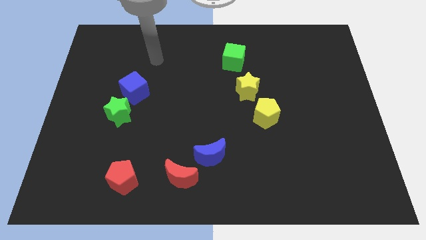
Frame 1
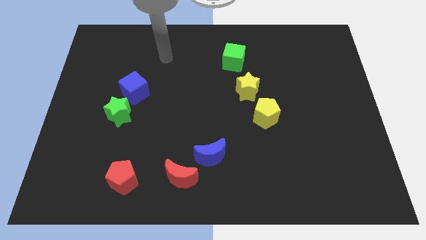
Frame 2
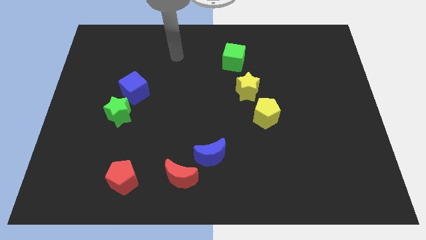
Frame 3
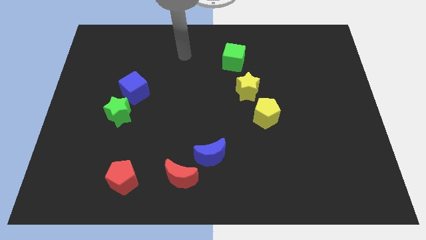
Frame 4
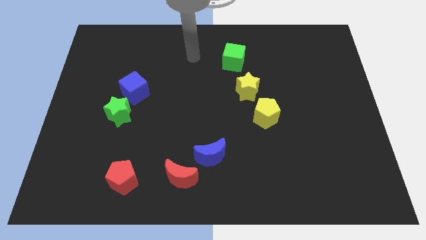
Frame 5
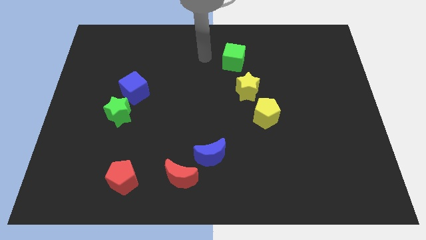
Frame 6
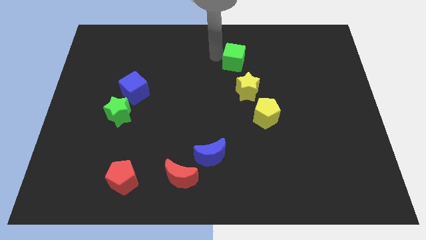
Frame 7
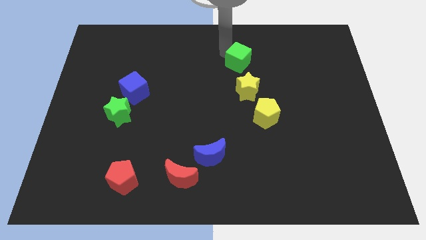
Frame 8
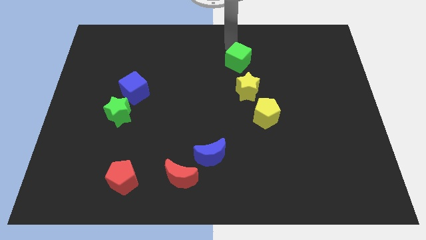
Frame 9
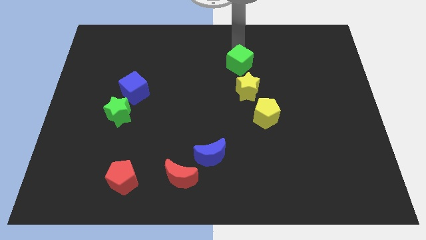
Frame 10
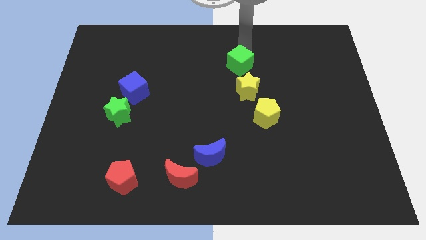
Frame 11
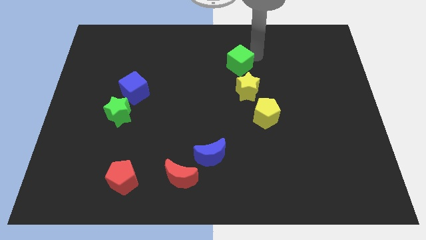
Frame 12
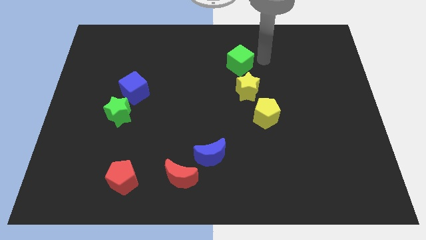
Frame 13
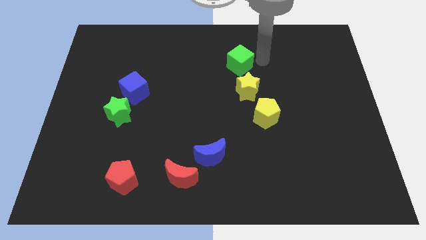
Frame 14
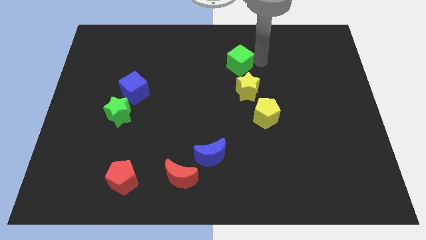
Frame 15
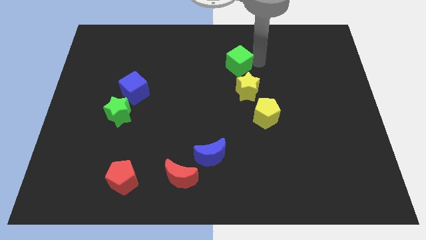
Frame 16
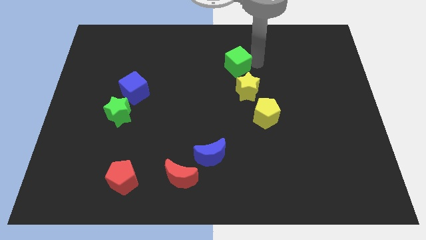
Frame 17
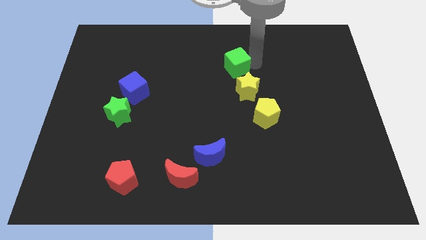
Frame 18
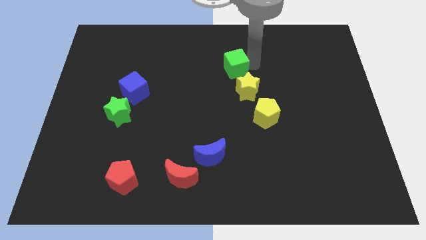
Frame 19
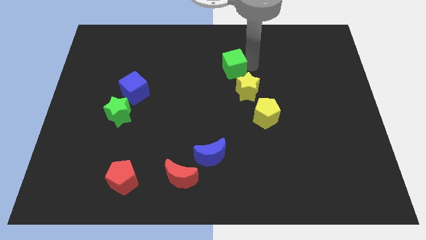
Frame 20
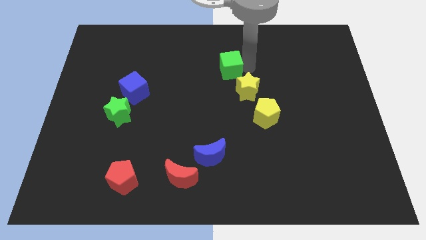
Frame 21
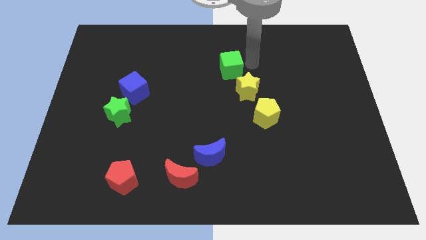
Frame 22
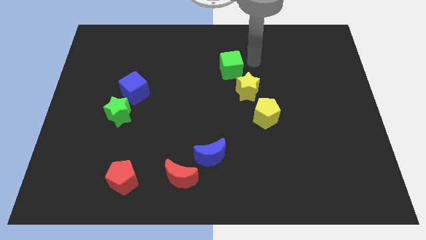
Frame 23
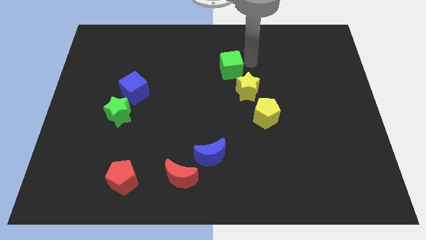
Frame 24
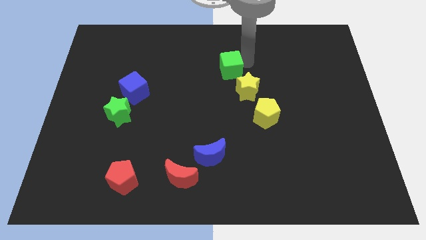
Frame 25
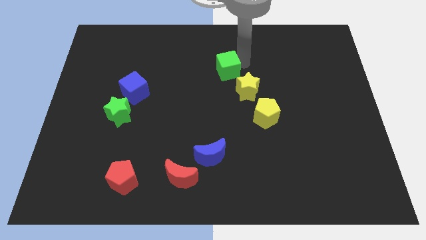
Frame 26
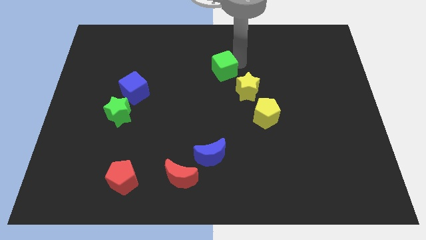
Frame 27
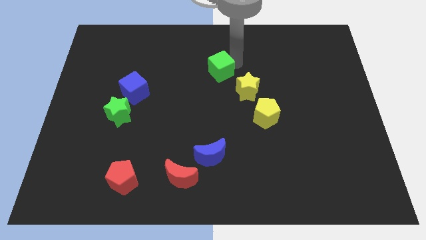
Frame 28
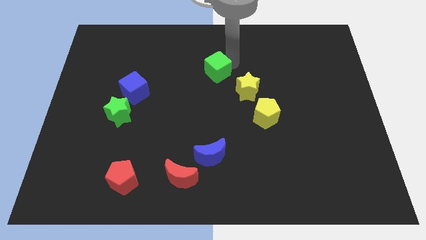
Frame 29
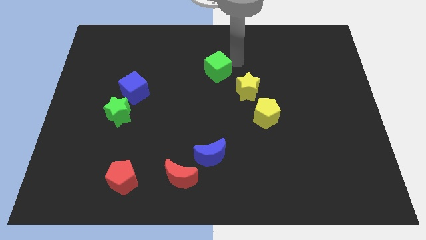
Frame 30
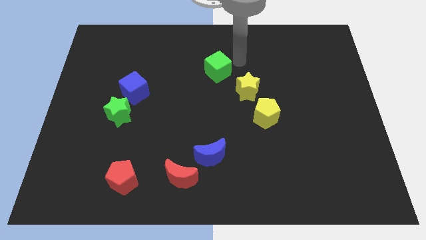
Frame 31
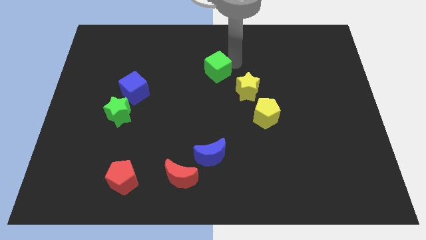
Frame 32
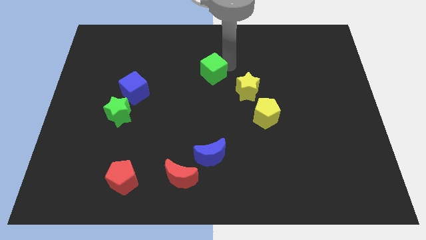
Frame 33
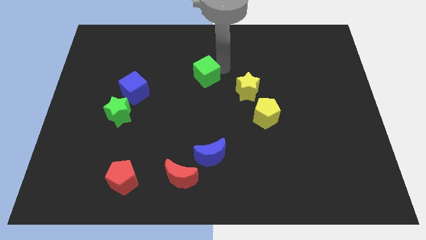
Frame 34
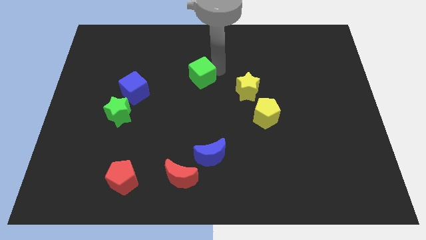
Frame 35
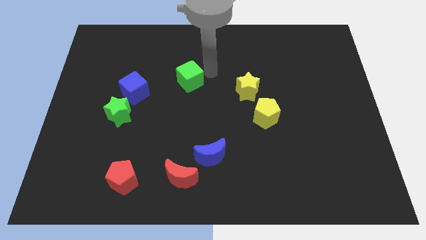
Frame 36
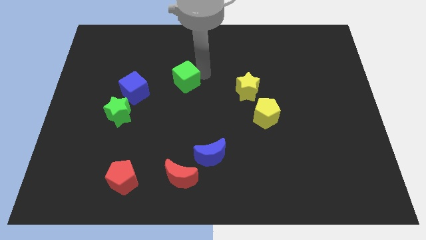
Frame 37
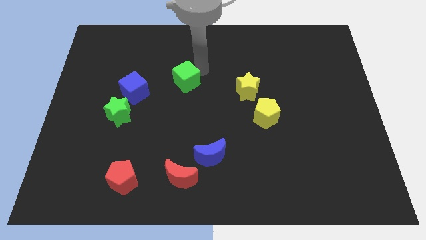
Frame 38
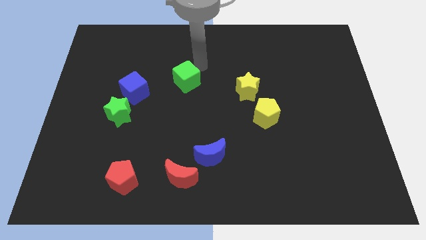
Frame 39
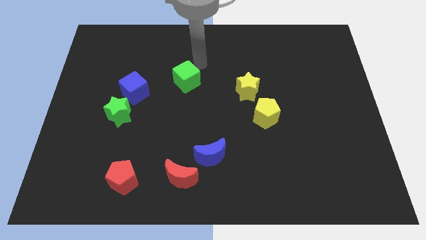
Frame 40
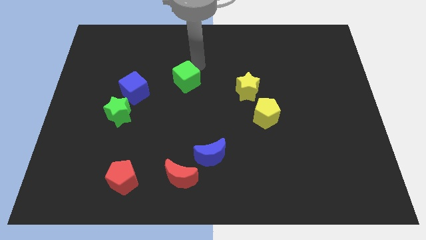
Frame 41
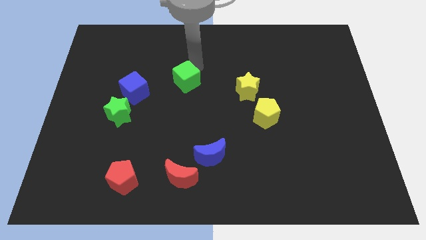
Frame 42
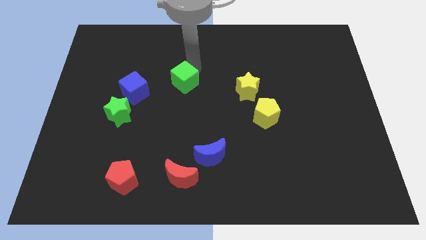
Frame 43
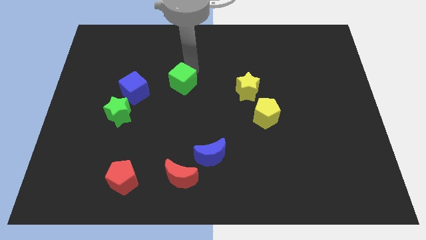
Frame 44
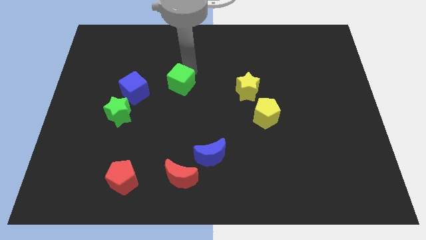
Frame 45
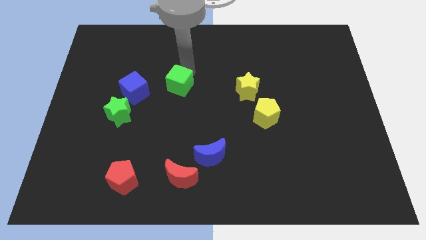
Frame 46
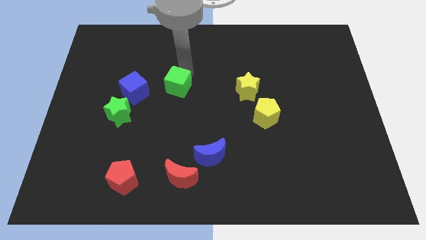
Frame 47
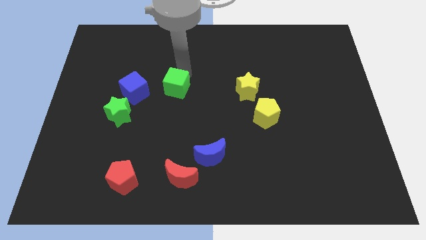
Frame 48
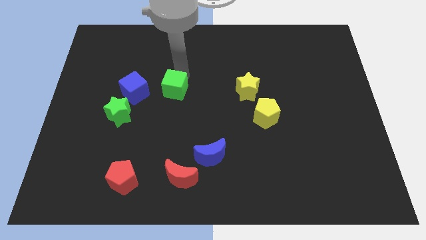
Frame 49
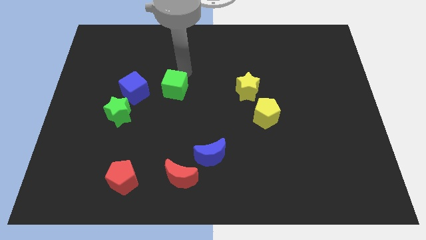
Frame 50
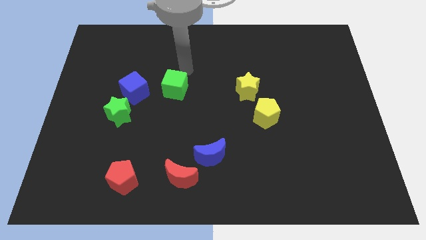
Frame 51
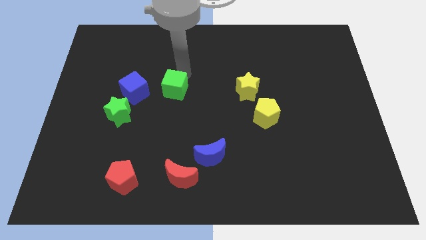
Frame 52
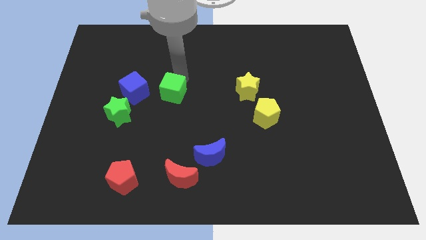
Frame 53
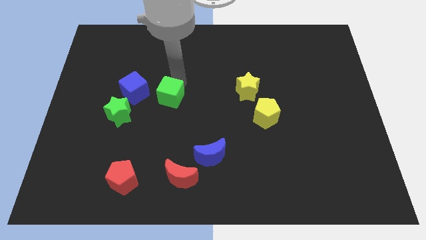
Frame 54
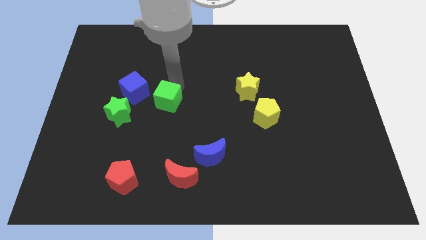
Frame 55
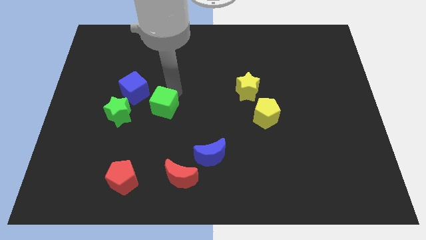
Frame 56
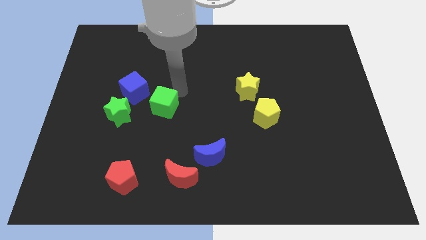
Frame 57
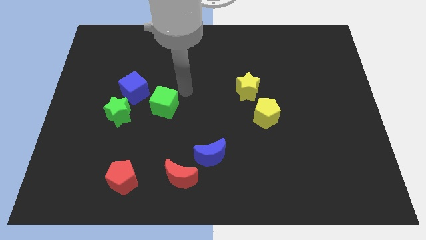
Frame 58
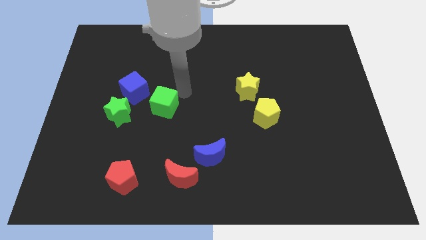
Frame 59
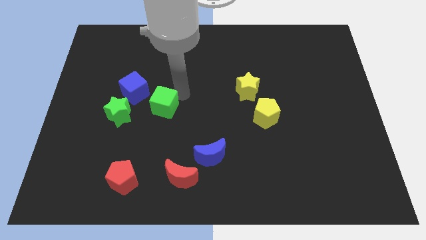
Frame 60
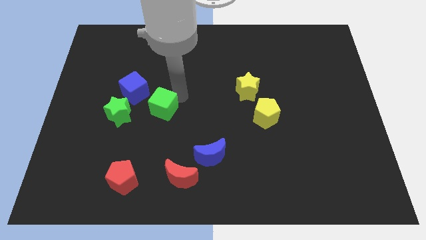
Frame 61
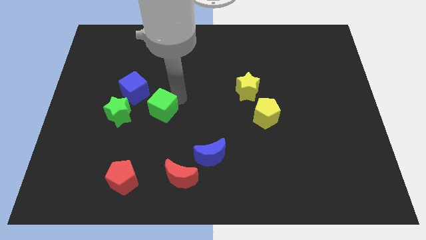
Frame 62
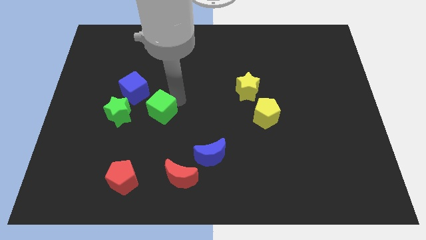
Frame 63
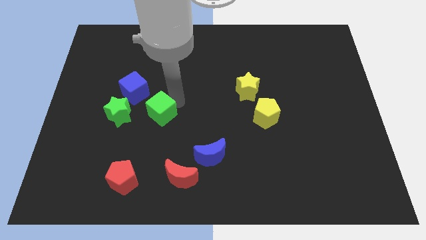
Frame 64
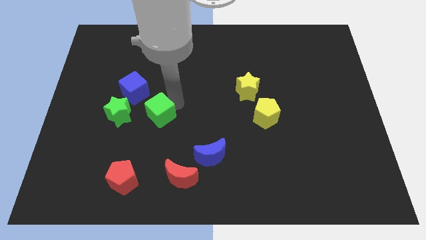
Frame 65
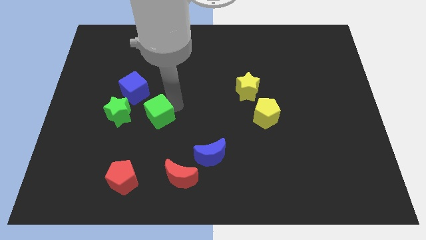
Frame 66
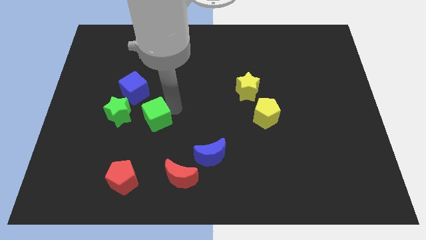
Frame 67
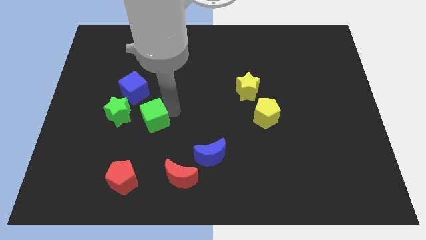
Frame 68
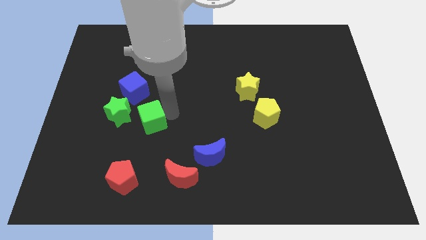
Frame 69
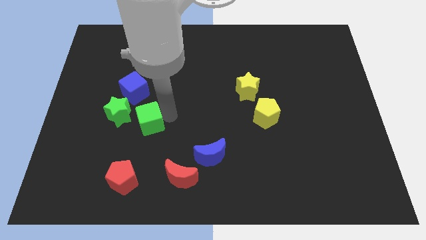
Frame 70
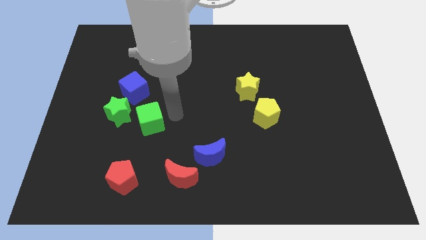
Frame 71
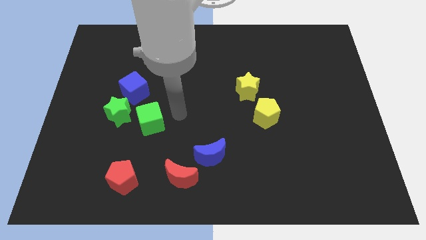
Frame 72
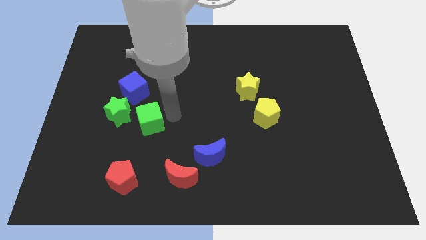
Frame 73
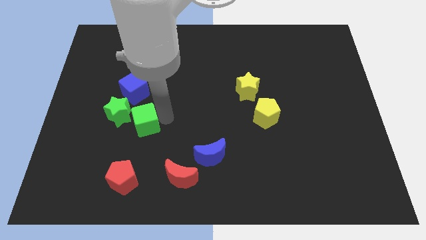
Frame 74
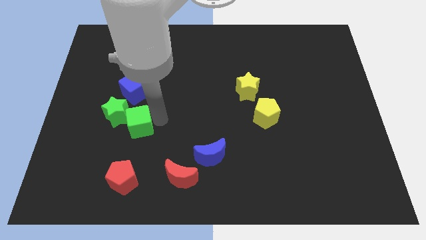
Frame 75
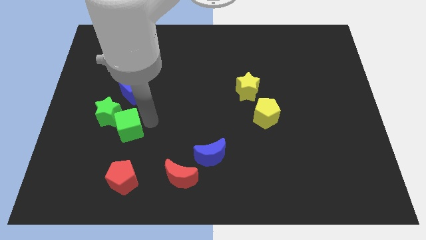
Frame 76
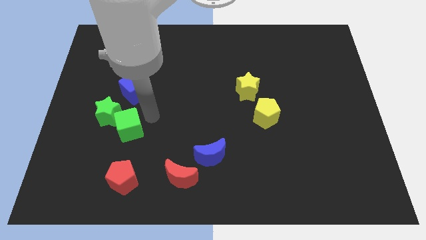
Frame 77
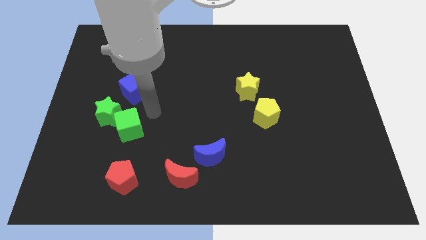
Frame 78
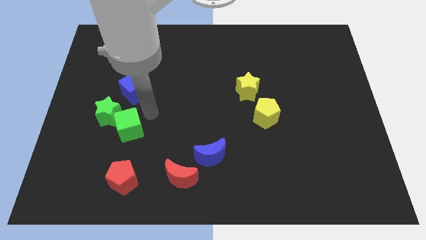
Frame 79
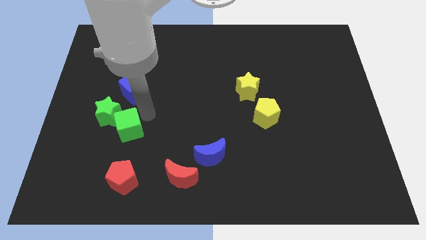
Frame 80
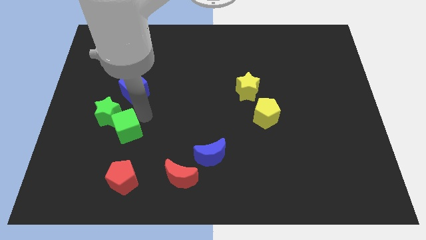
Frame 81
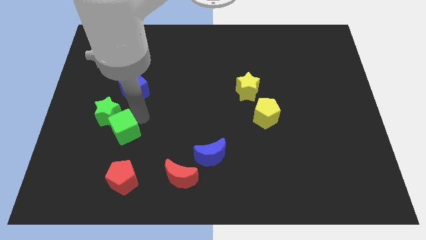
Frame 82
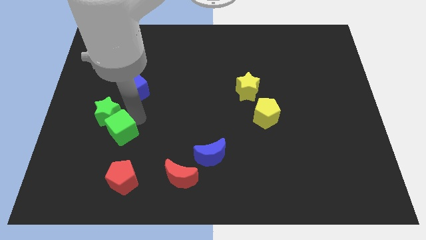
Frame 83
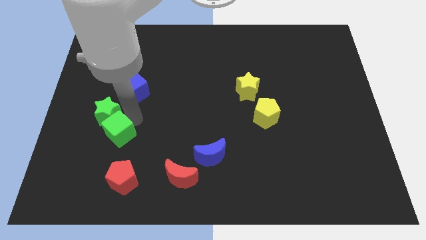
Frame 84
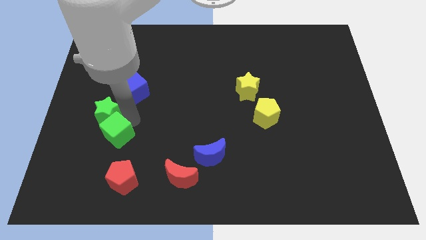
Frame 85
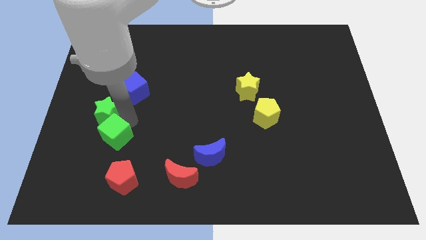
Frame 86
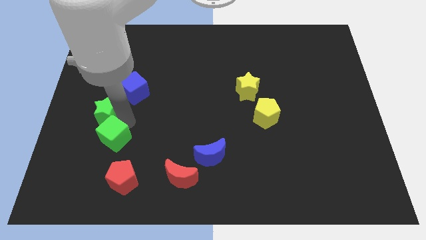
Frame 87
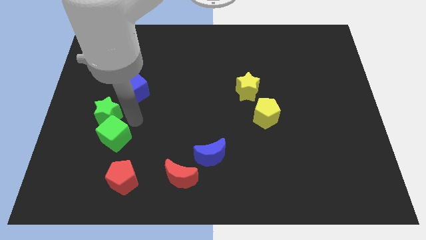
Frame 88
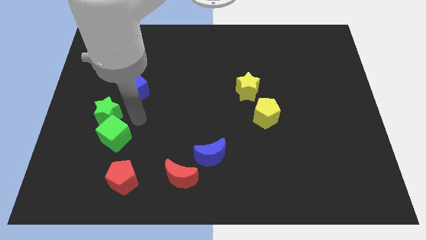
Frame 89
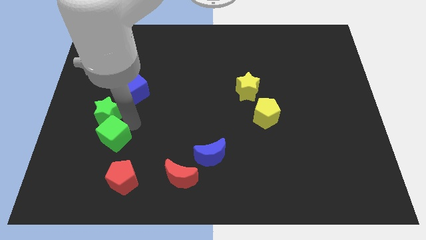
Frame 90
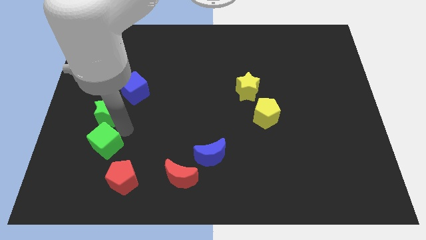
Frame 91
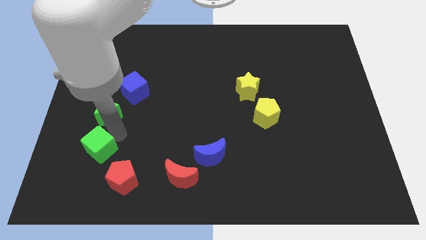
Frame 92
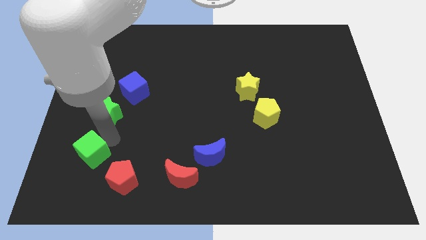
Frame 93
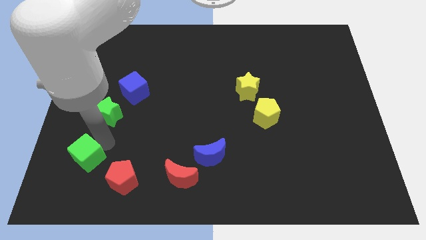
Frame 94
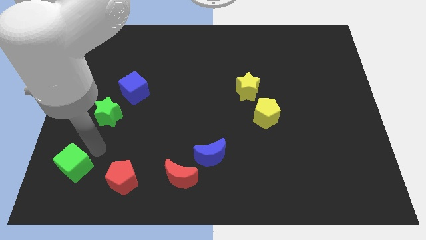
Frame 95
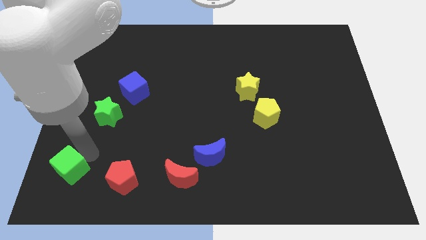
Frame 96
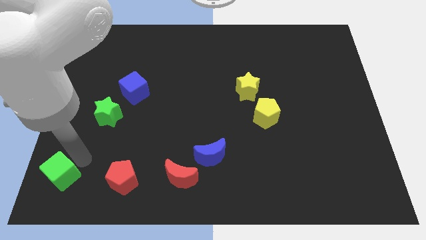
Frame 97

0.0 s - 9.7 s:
push the green cube to the bottom left corner
